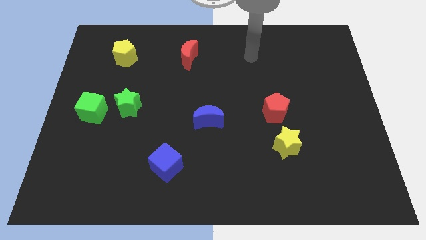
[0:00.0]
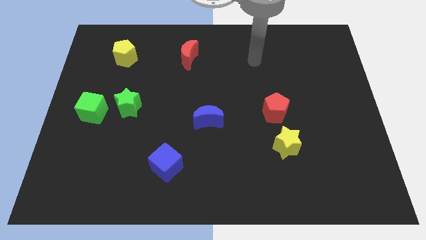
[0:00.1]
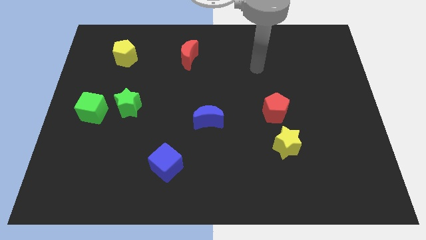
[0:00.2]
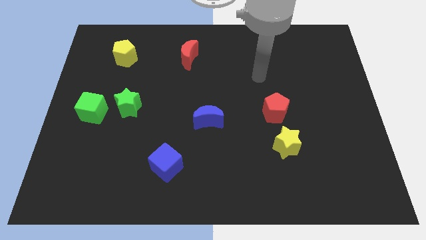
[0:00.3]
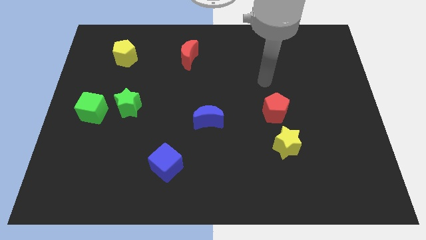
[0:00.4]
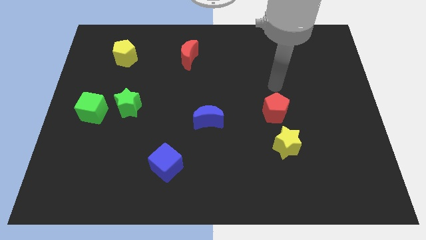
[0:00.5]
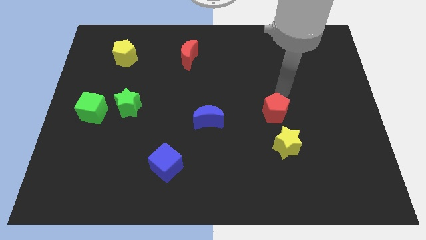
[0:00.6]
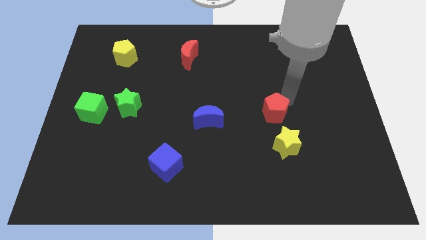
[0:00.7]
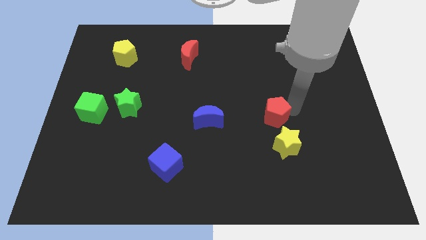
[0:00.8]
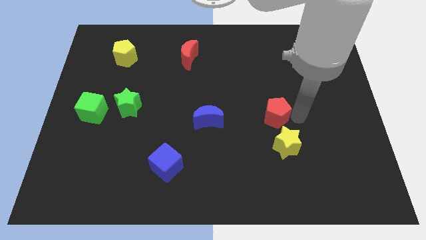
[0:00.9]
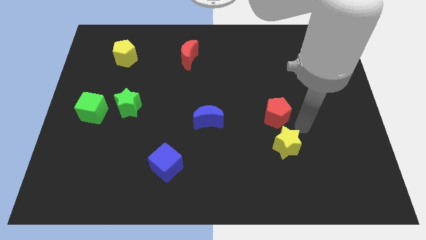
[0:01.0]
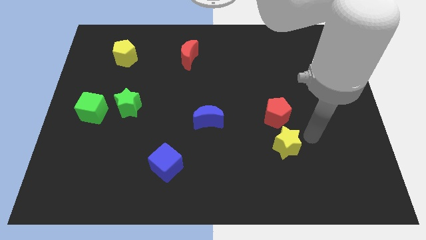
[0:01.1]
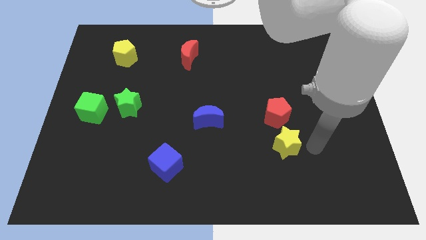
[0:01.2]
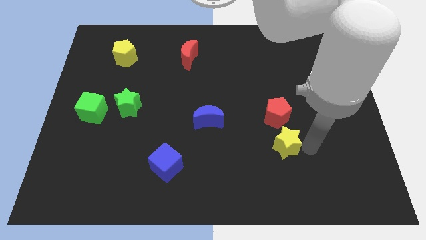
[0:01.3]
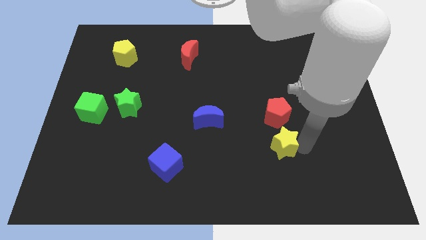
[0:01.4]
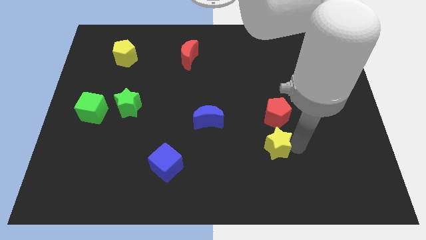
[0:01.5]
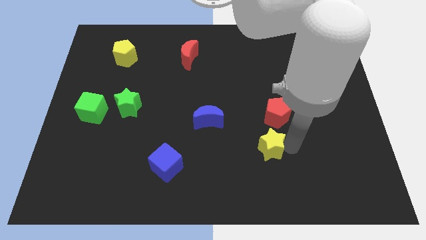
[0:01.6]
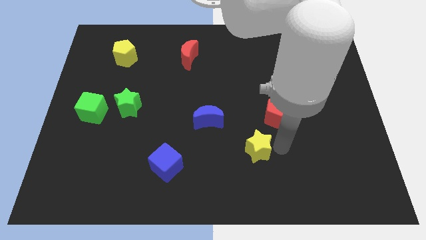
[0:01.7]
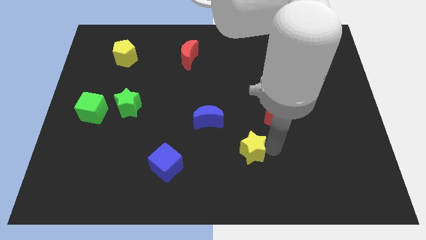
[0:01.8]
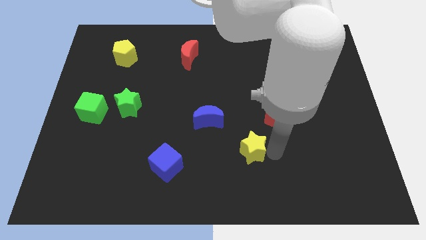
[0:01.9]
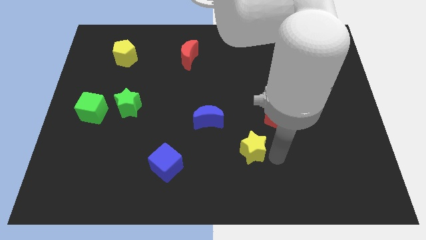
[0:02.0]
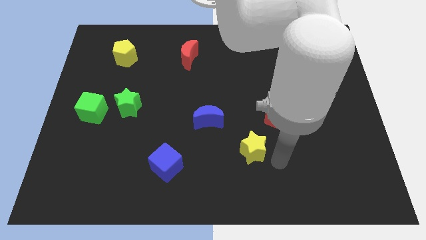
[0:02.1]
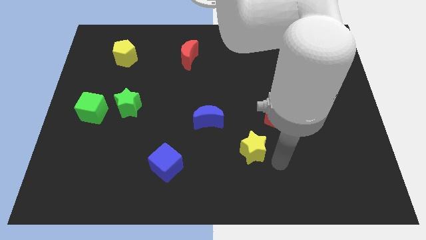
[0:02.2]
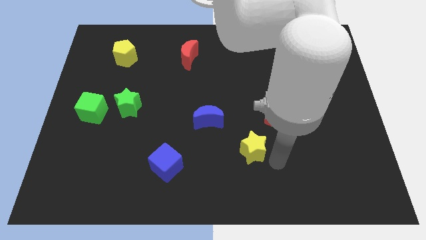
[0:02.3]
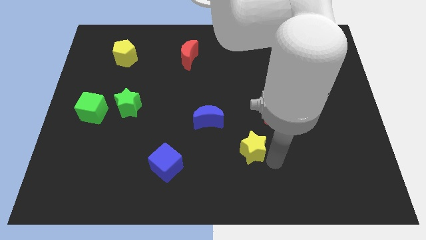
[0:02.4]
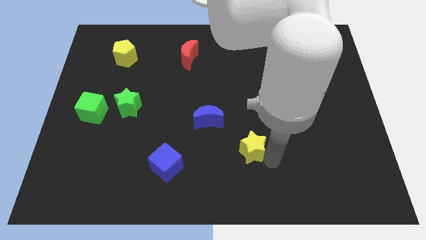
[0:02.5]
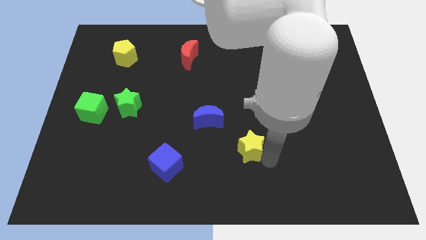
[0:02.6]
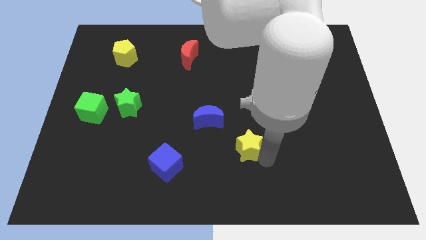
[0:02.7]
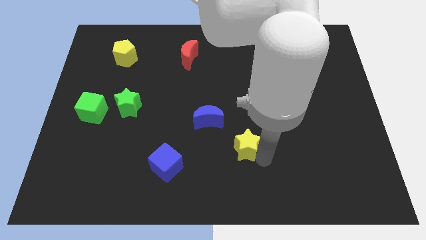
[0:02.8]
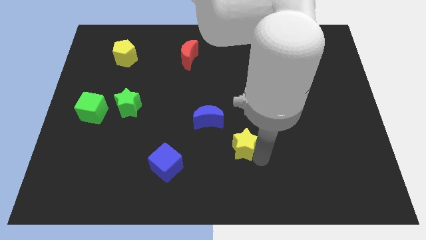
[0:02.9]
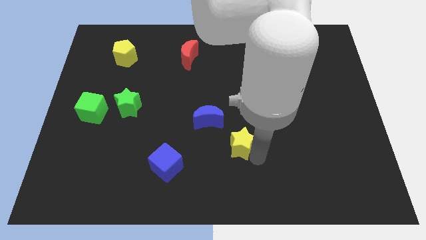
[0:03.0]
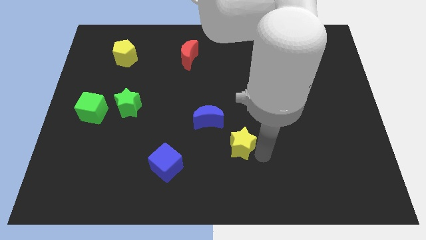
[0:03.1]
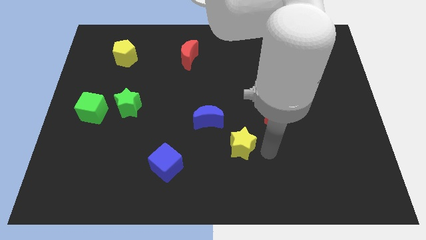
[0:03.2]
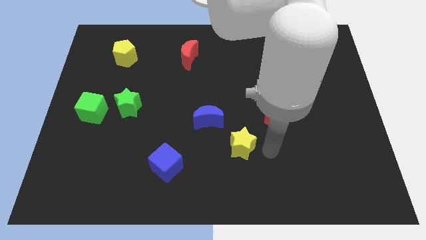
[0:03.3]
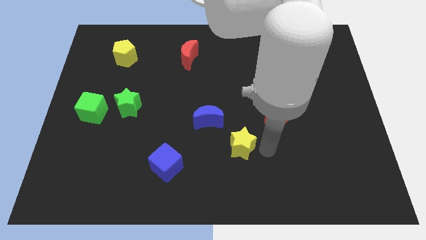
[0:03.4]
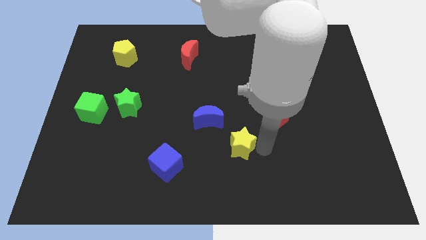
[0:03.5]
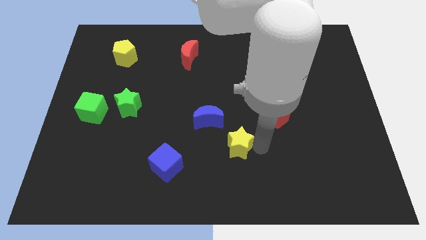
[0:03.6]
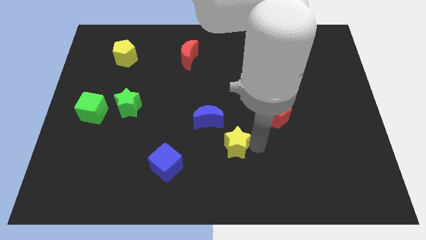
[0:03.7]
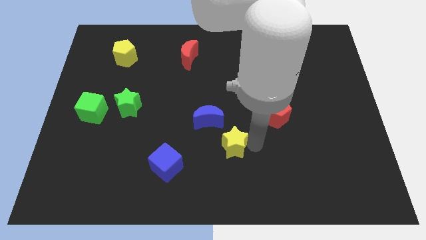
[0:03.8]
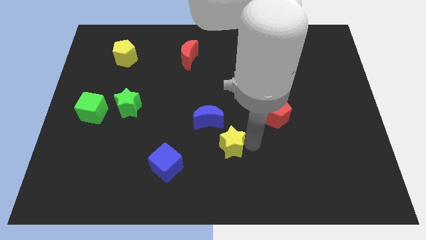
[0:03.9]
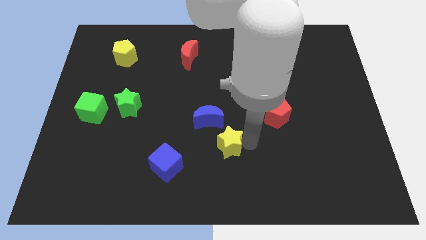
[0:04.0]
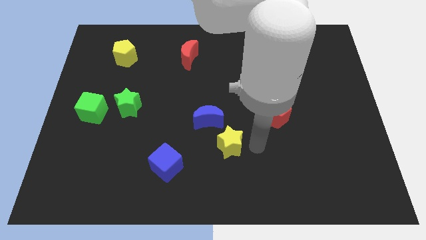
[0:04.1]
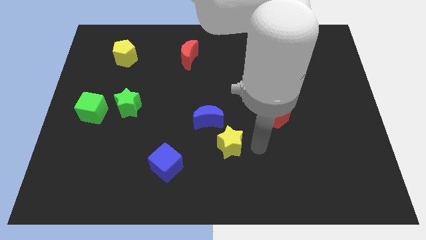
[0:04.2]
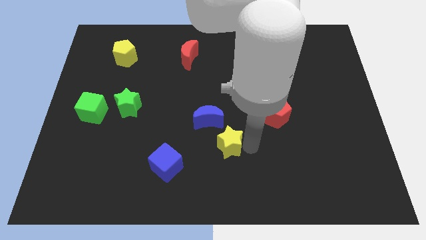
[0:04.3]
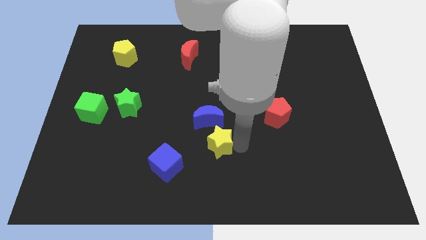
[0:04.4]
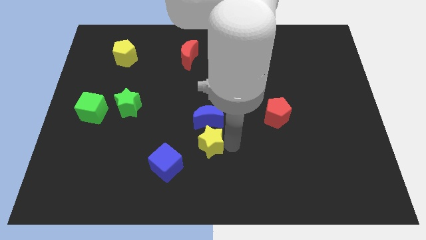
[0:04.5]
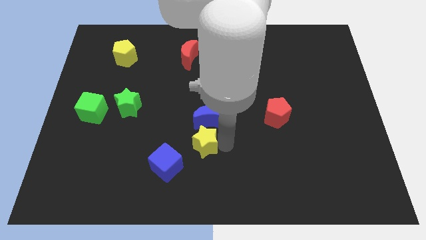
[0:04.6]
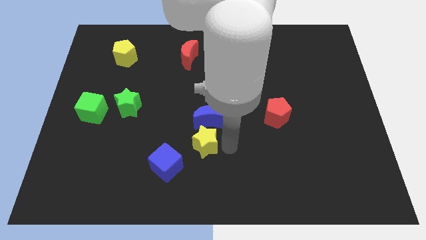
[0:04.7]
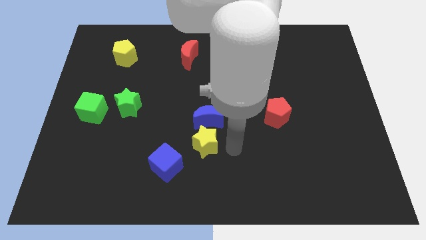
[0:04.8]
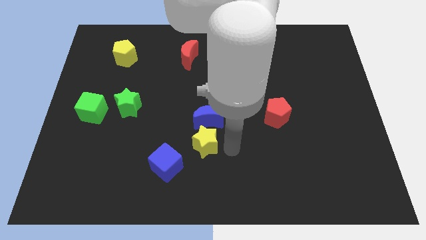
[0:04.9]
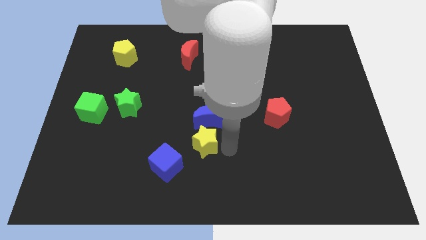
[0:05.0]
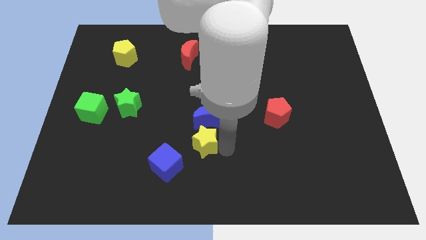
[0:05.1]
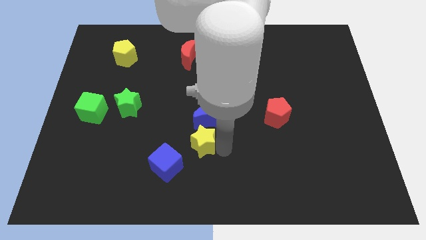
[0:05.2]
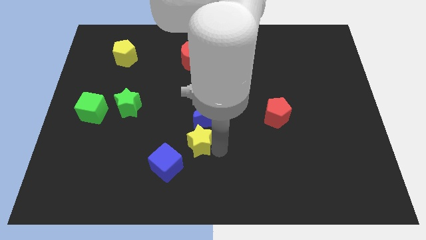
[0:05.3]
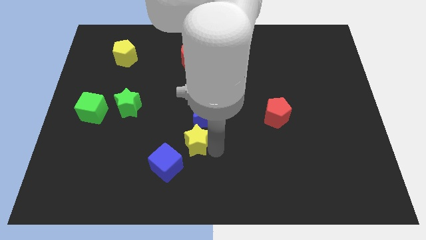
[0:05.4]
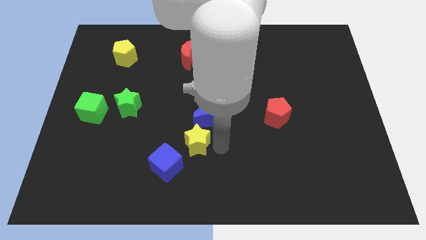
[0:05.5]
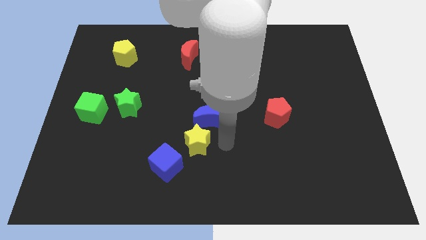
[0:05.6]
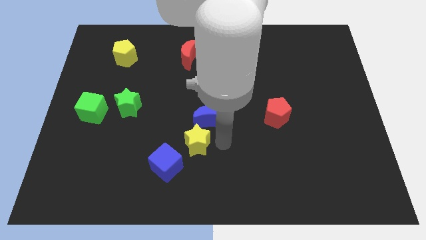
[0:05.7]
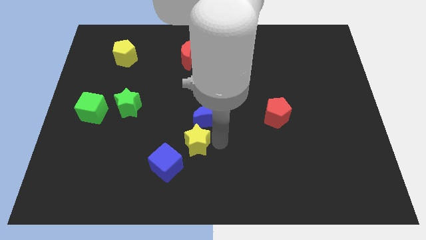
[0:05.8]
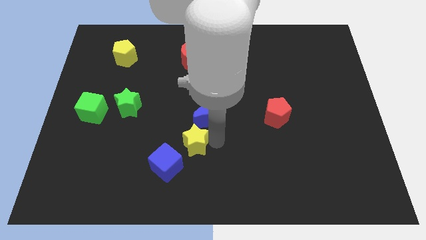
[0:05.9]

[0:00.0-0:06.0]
move the yellow star left

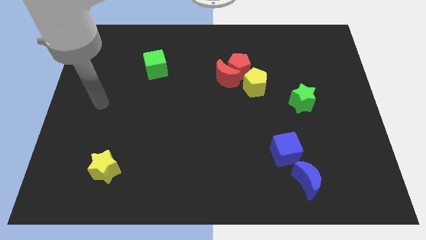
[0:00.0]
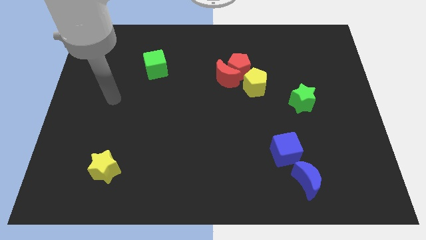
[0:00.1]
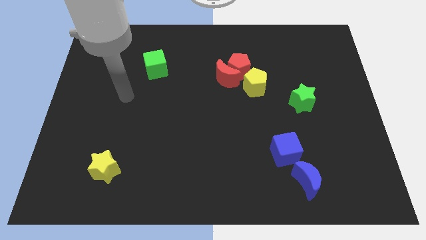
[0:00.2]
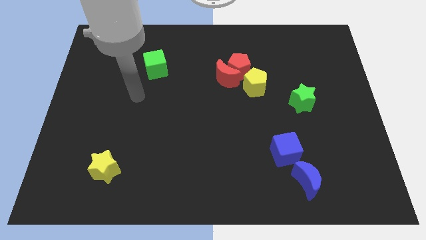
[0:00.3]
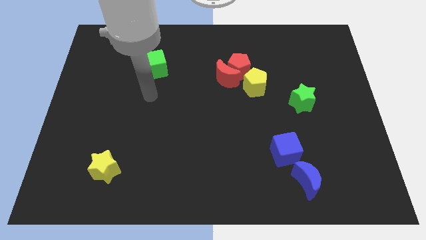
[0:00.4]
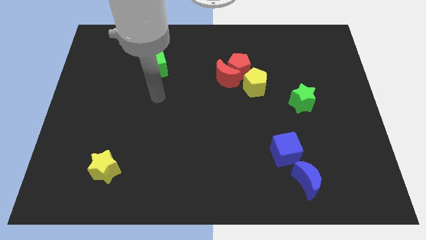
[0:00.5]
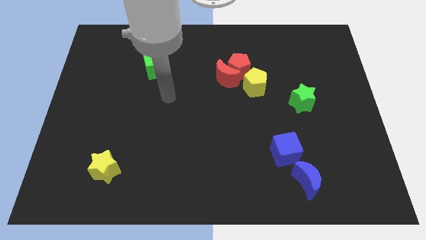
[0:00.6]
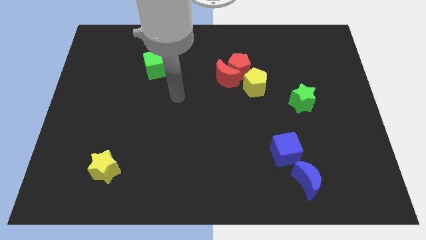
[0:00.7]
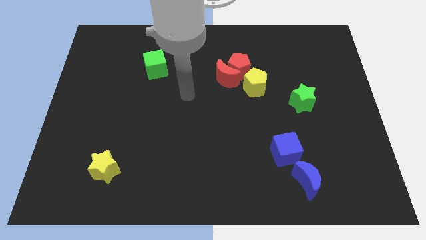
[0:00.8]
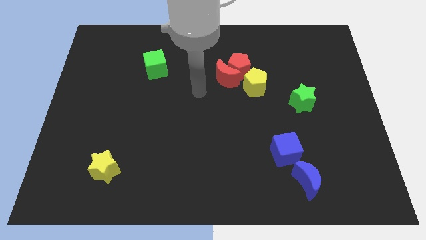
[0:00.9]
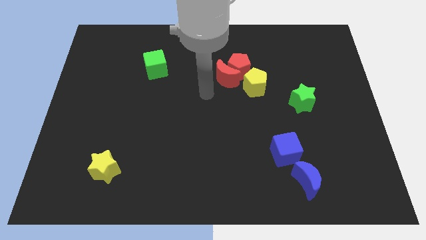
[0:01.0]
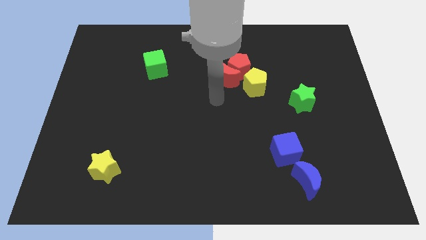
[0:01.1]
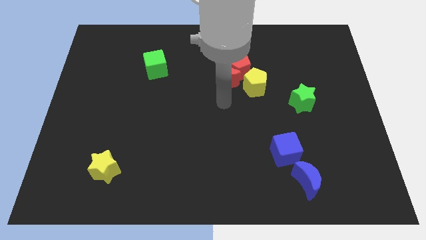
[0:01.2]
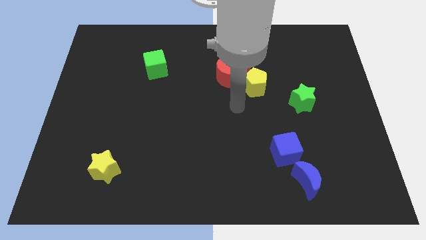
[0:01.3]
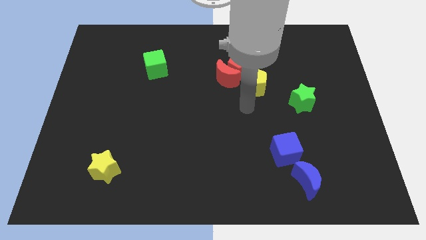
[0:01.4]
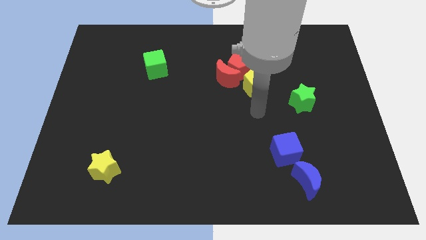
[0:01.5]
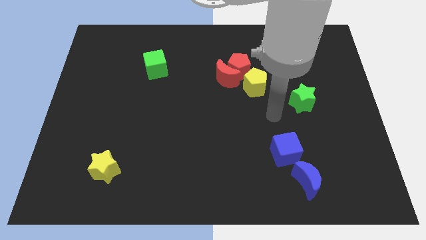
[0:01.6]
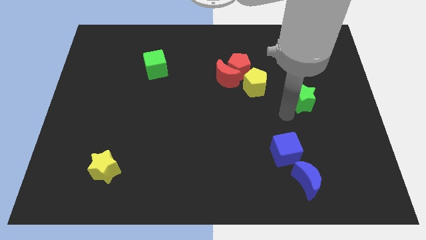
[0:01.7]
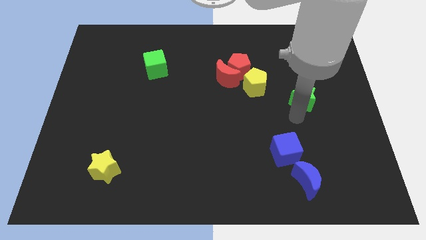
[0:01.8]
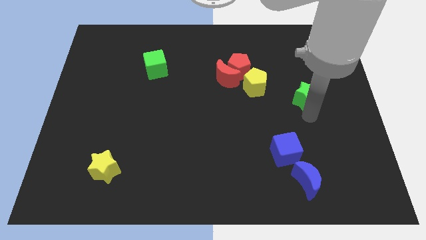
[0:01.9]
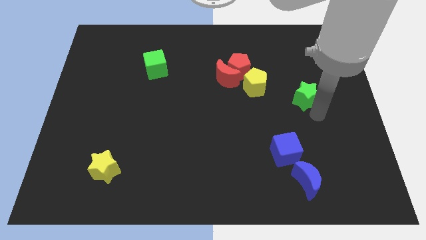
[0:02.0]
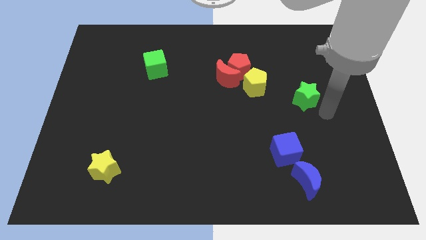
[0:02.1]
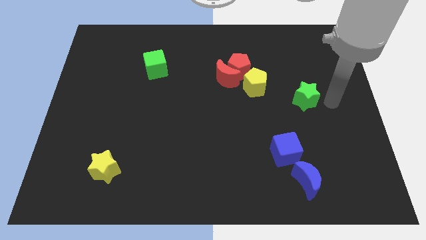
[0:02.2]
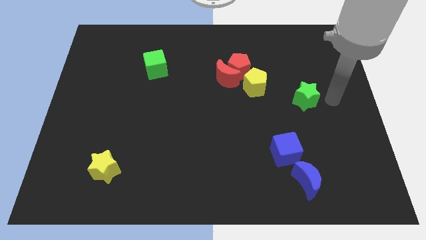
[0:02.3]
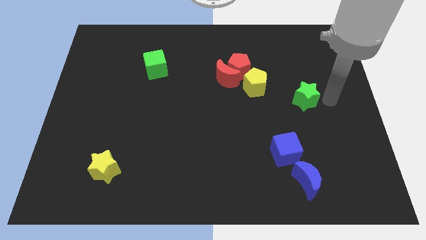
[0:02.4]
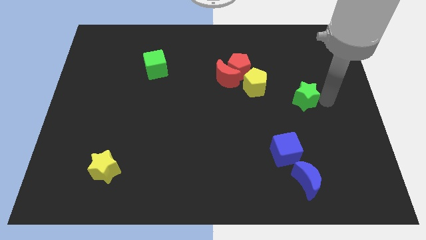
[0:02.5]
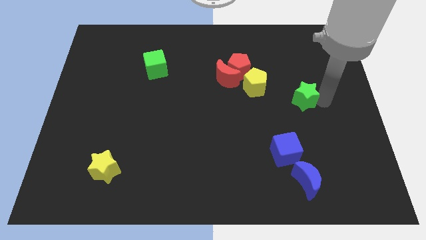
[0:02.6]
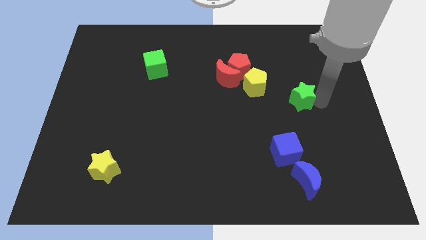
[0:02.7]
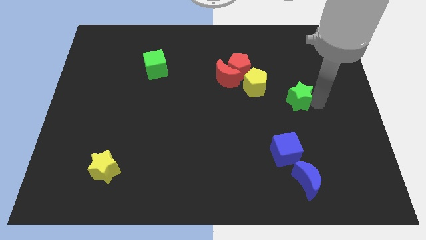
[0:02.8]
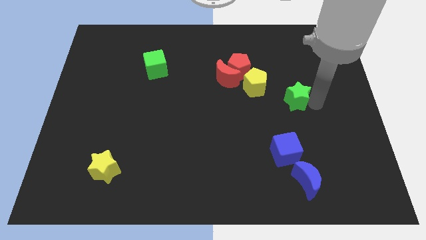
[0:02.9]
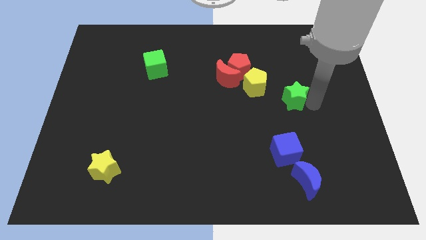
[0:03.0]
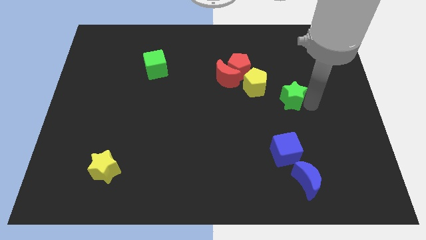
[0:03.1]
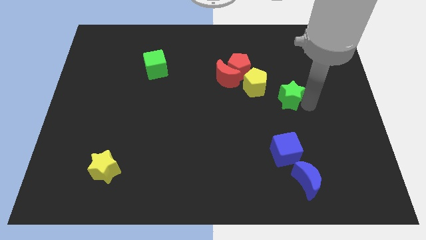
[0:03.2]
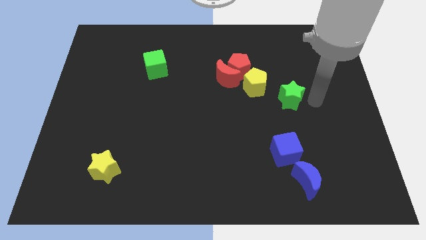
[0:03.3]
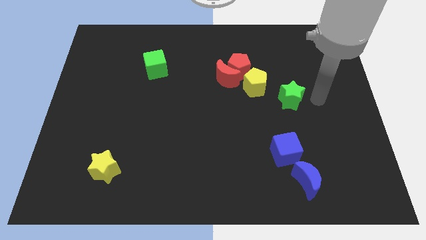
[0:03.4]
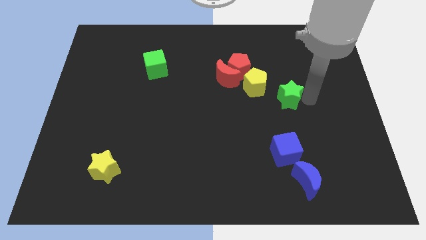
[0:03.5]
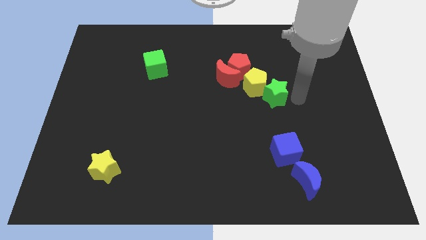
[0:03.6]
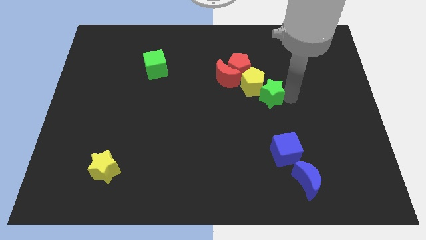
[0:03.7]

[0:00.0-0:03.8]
push the green star a little to the left
